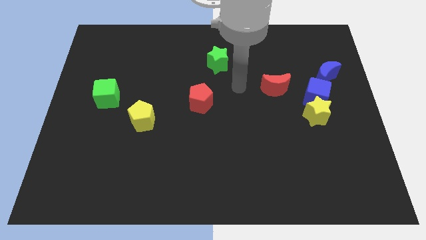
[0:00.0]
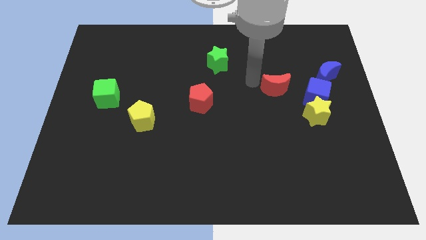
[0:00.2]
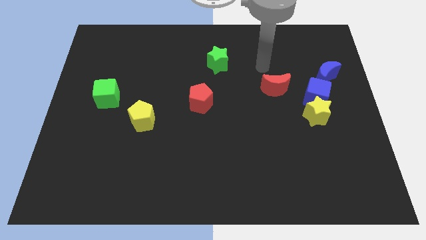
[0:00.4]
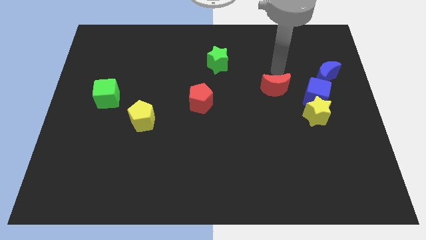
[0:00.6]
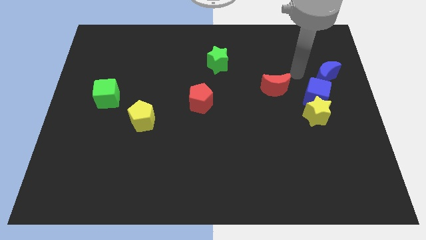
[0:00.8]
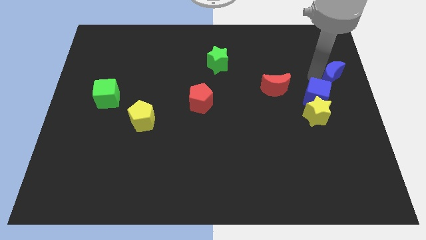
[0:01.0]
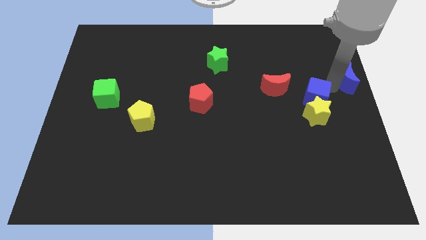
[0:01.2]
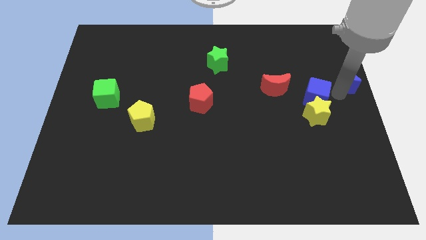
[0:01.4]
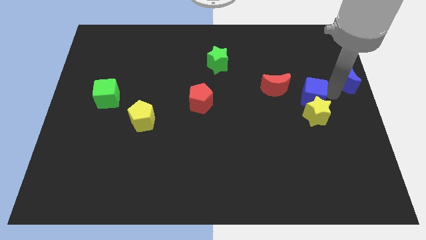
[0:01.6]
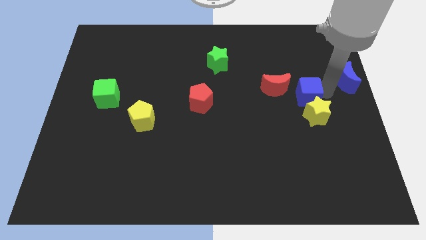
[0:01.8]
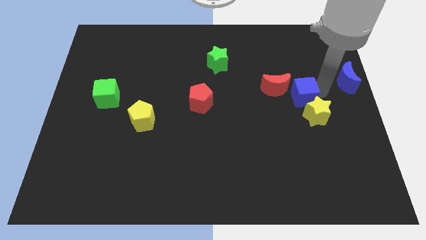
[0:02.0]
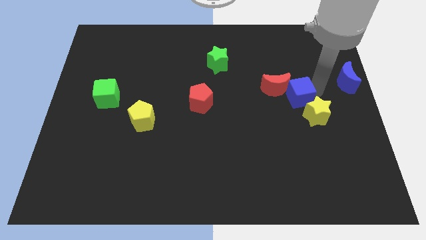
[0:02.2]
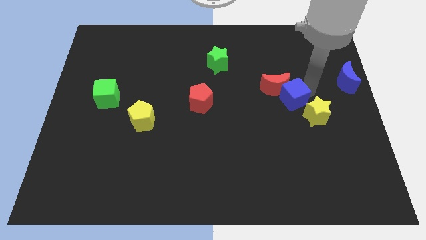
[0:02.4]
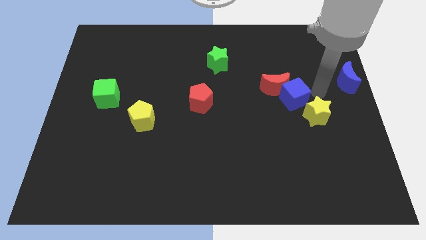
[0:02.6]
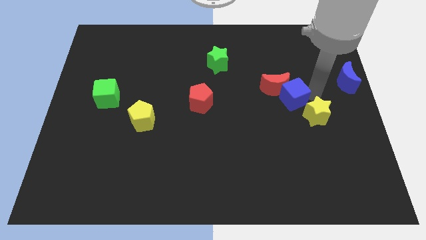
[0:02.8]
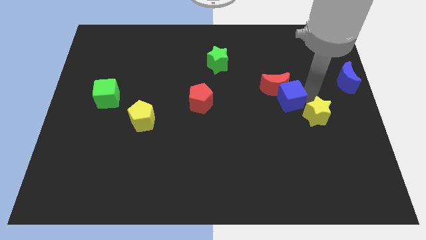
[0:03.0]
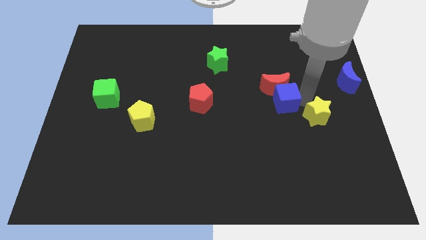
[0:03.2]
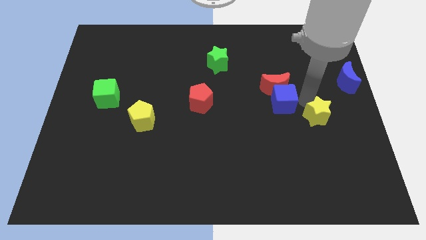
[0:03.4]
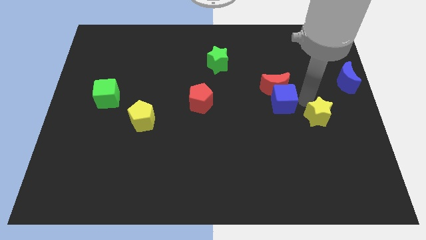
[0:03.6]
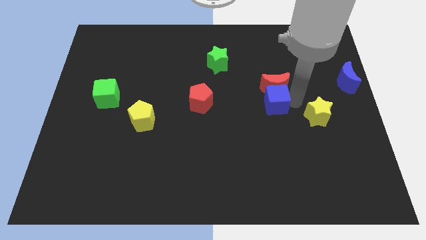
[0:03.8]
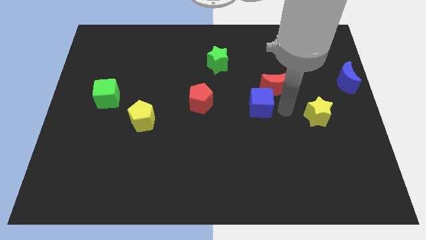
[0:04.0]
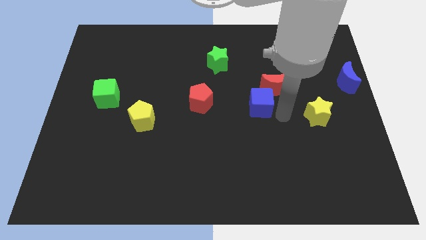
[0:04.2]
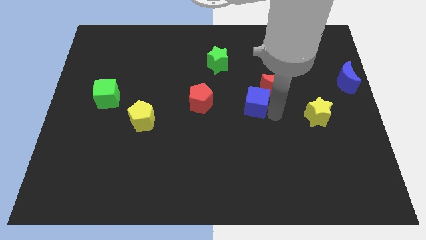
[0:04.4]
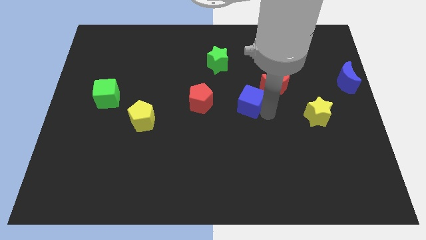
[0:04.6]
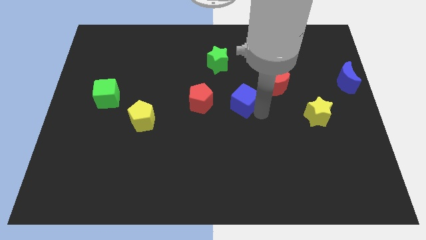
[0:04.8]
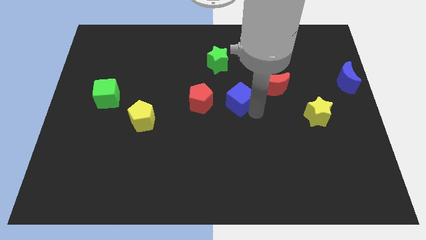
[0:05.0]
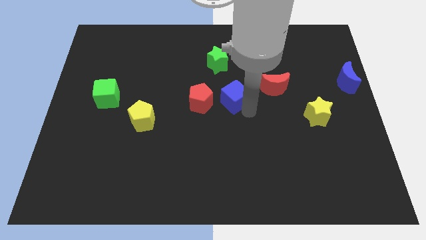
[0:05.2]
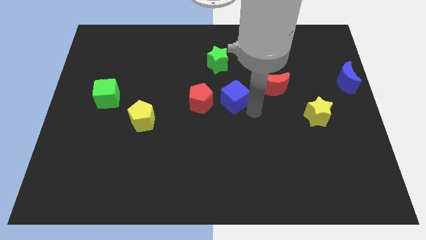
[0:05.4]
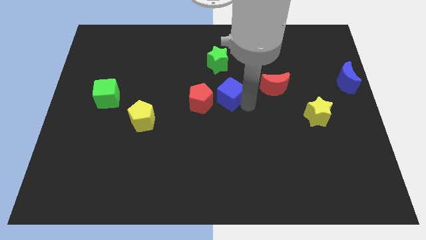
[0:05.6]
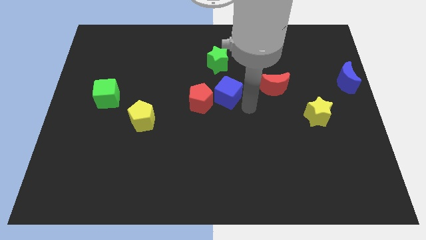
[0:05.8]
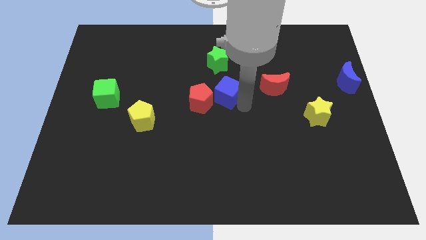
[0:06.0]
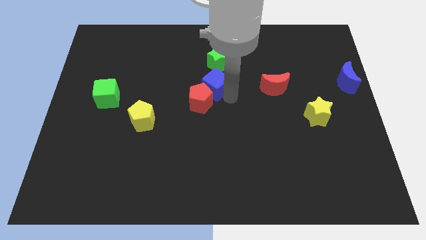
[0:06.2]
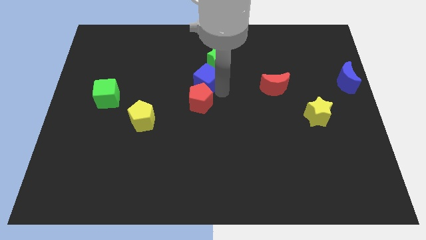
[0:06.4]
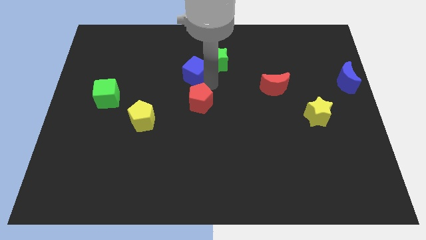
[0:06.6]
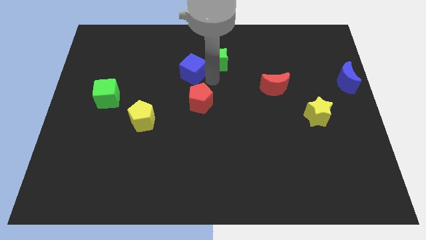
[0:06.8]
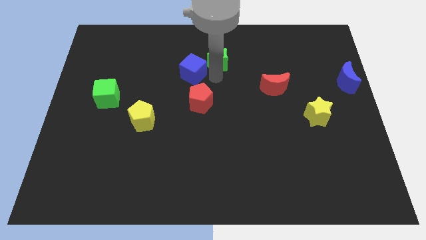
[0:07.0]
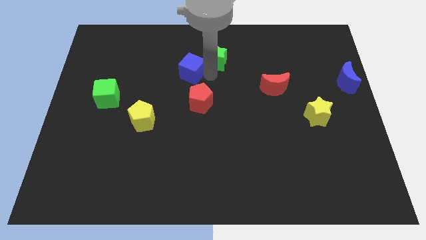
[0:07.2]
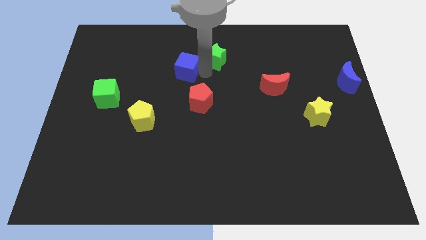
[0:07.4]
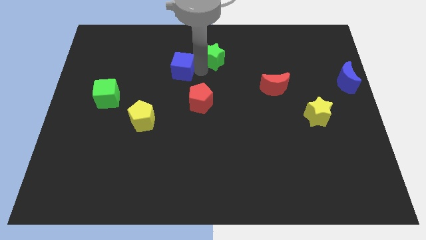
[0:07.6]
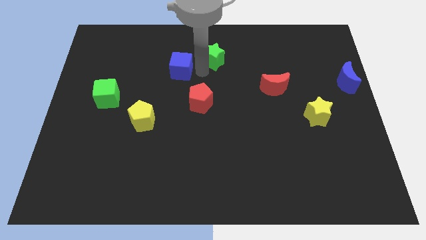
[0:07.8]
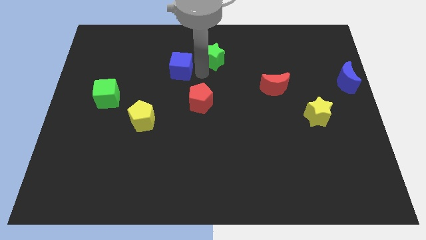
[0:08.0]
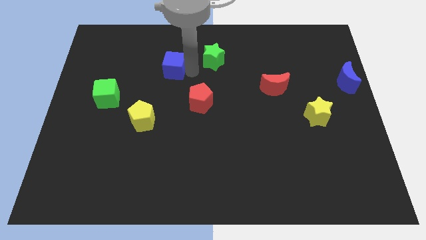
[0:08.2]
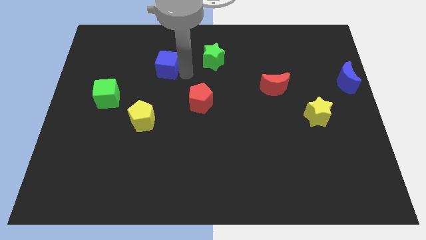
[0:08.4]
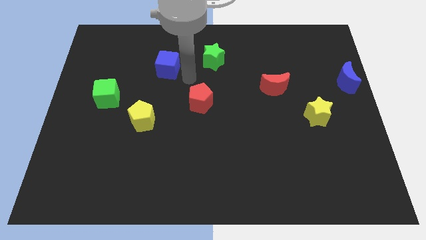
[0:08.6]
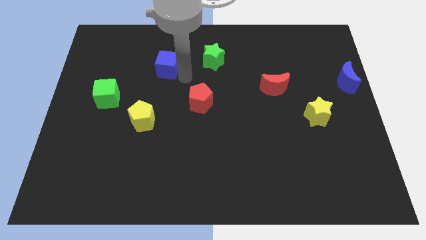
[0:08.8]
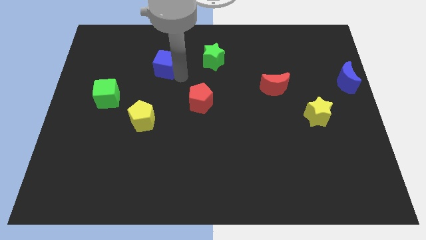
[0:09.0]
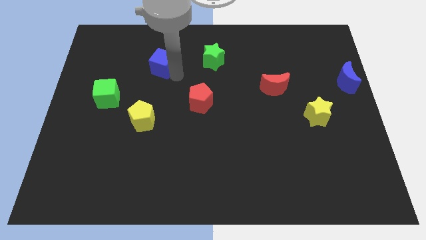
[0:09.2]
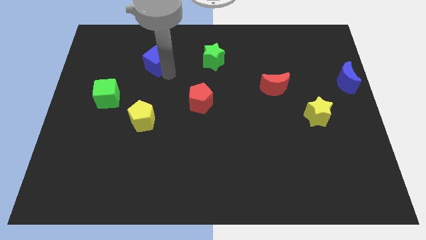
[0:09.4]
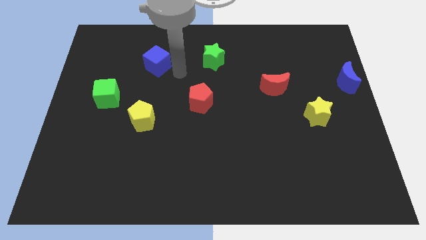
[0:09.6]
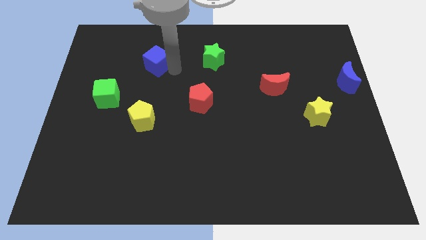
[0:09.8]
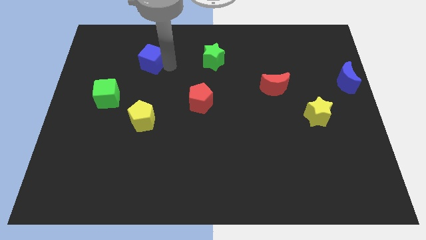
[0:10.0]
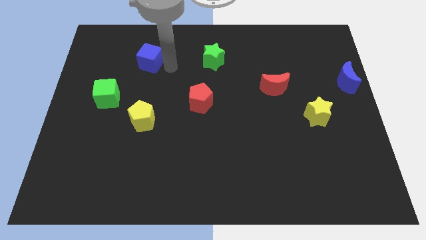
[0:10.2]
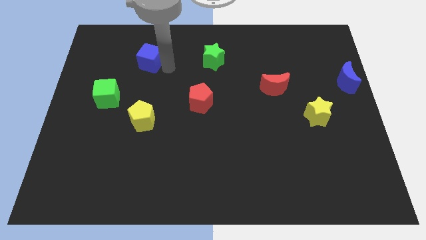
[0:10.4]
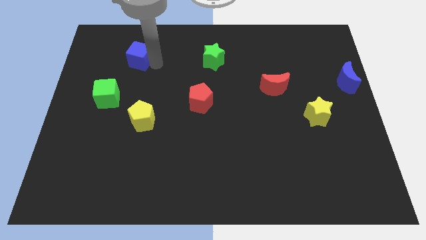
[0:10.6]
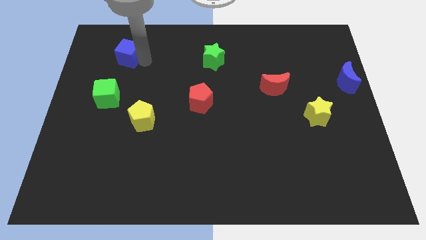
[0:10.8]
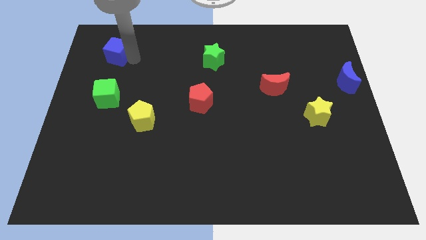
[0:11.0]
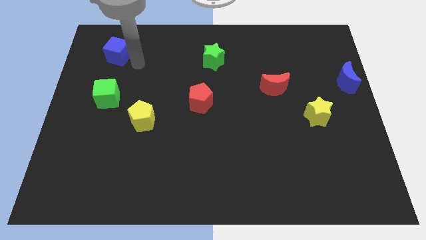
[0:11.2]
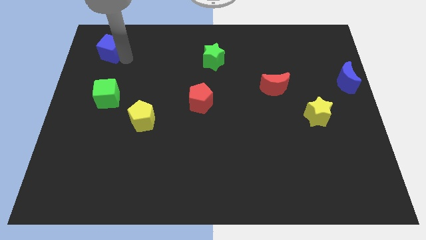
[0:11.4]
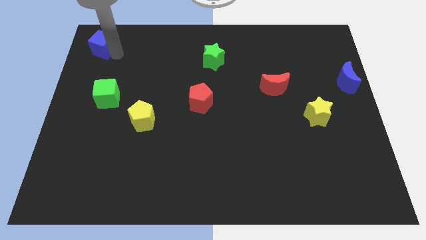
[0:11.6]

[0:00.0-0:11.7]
put the blue cube to the top left

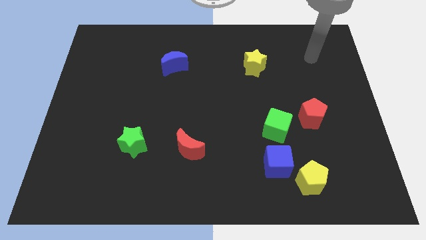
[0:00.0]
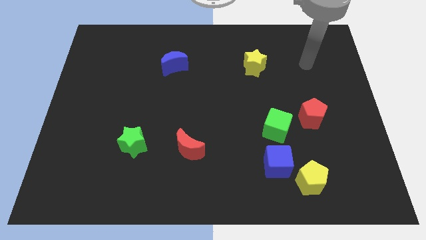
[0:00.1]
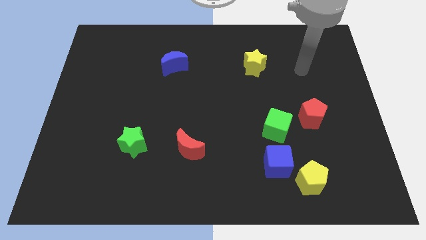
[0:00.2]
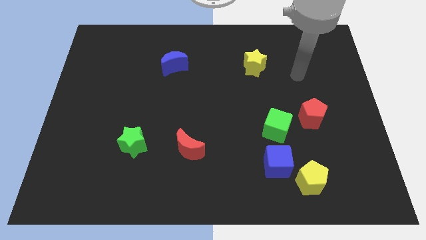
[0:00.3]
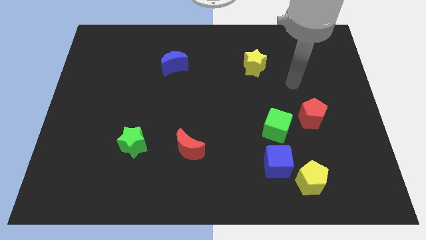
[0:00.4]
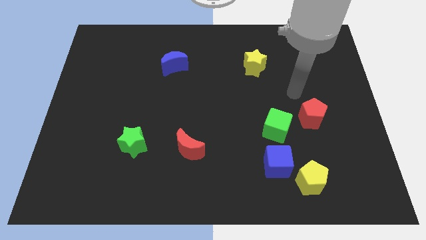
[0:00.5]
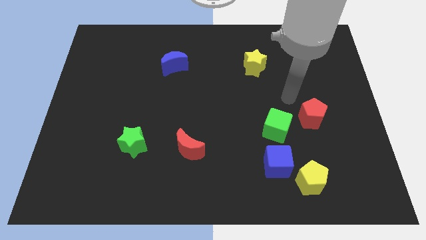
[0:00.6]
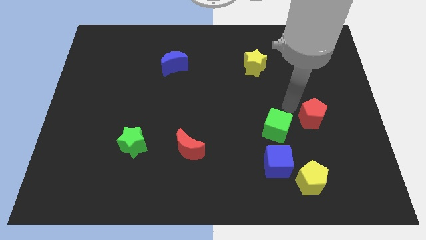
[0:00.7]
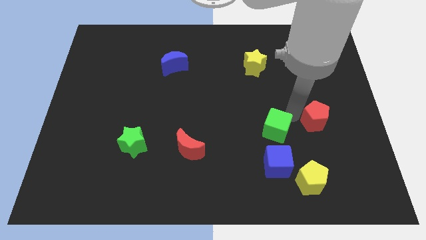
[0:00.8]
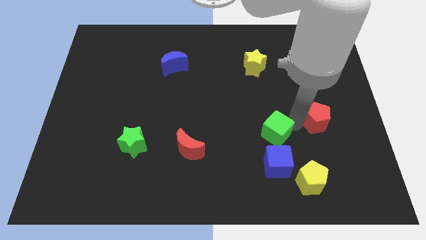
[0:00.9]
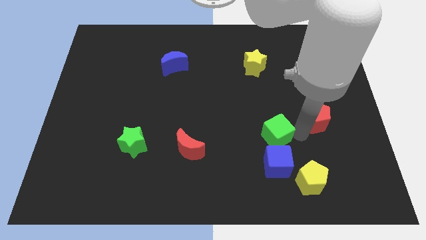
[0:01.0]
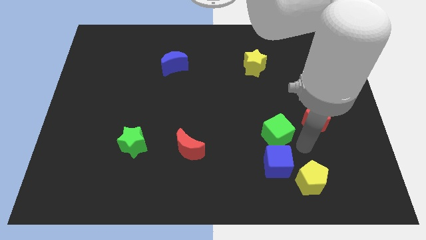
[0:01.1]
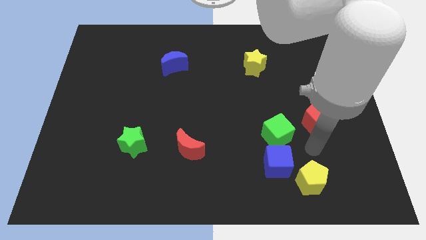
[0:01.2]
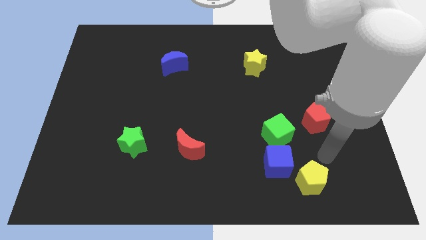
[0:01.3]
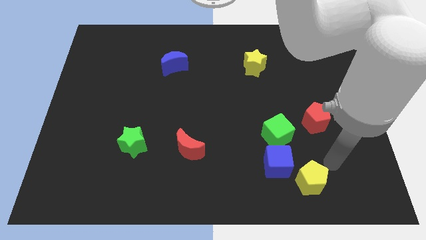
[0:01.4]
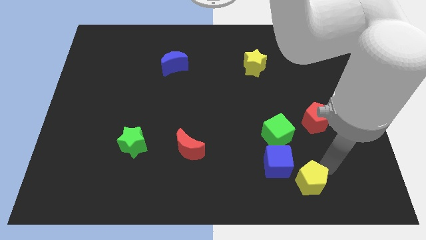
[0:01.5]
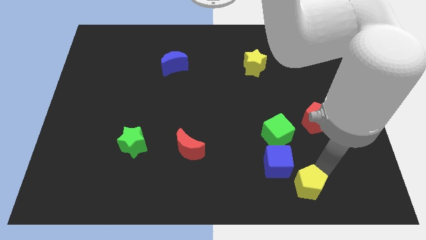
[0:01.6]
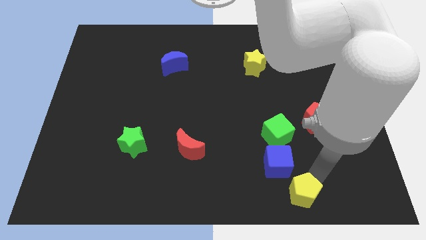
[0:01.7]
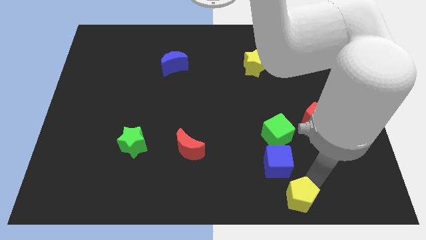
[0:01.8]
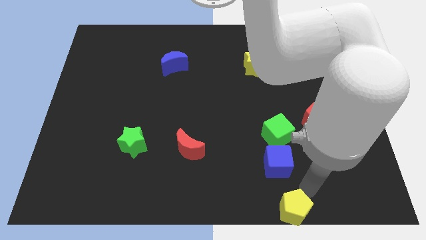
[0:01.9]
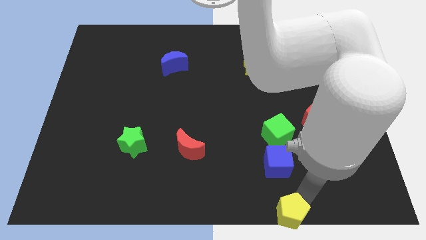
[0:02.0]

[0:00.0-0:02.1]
move the yellow pentagon to the bottom
